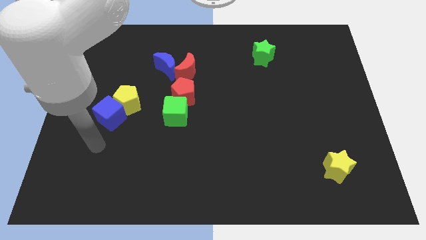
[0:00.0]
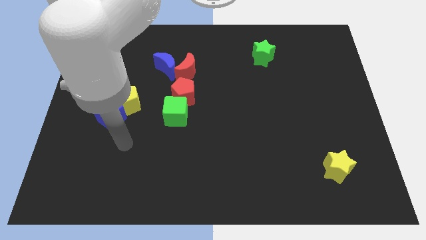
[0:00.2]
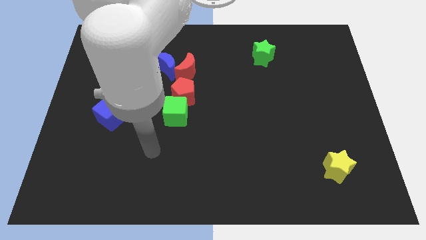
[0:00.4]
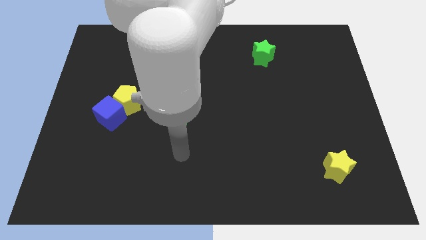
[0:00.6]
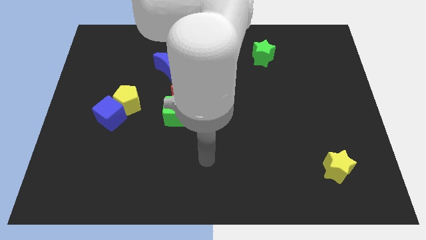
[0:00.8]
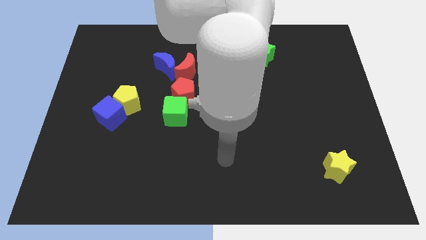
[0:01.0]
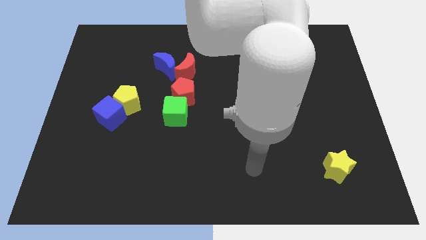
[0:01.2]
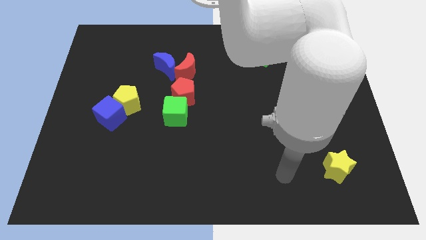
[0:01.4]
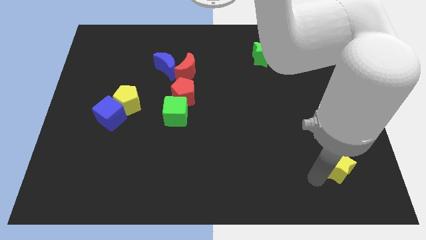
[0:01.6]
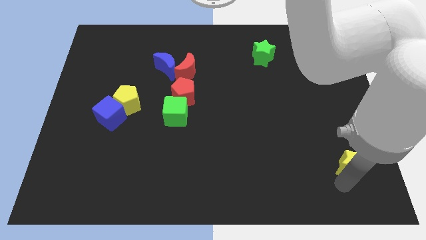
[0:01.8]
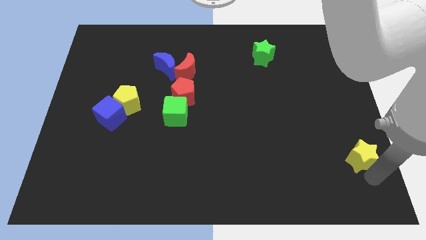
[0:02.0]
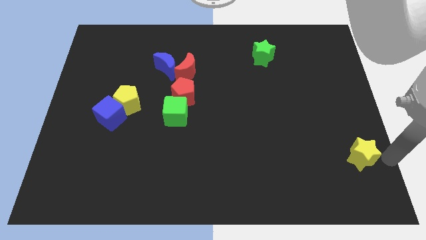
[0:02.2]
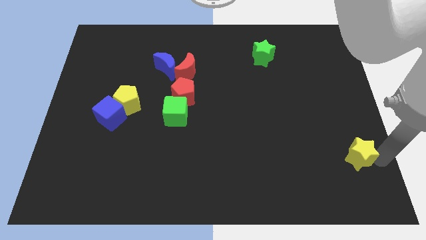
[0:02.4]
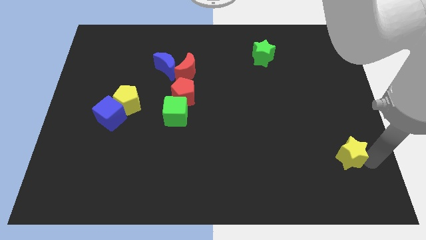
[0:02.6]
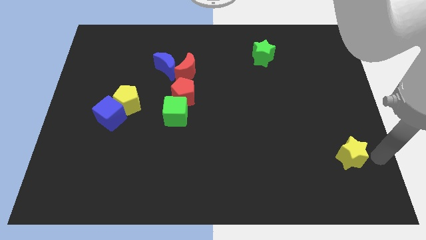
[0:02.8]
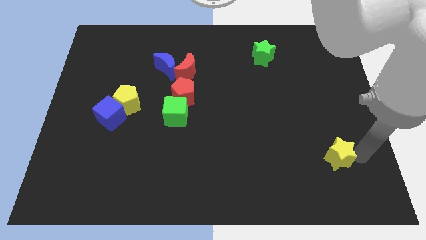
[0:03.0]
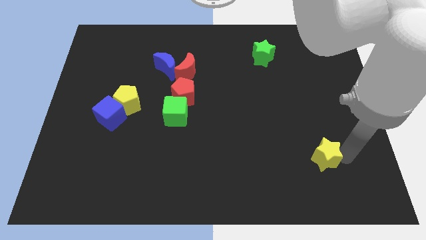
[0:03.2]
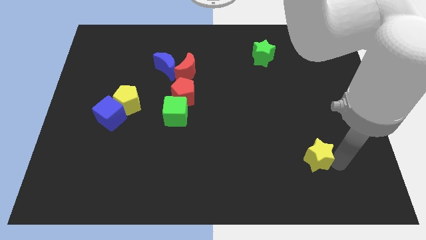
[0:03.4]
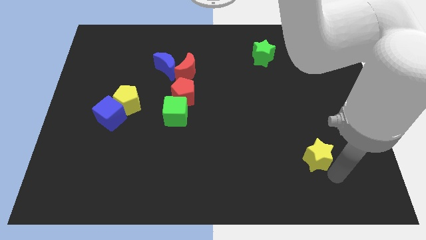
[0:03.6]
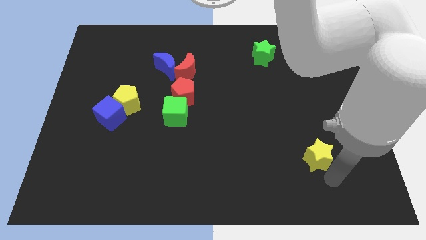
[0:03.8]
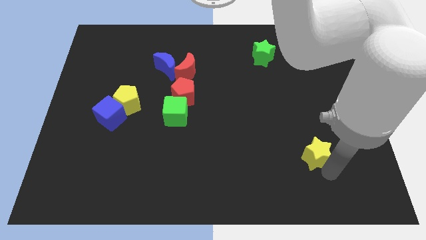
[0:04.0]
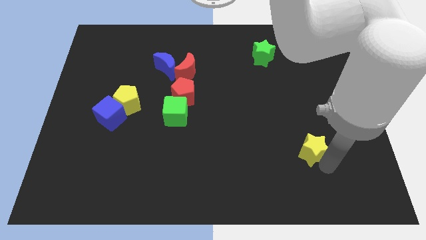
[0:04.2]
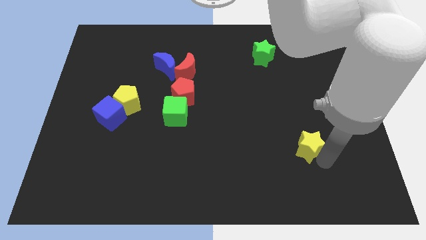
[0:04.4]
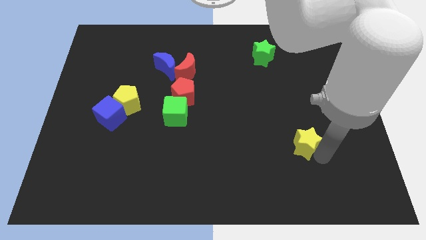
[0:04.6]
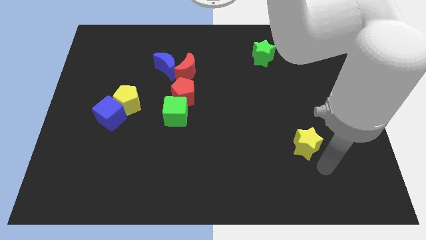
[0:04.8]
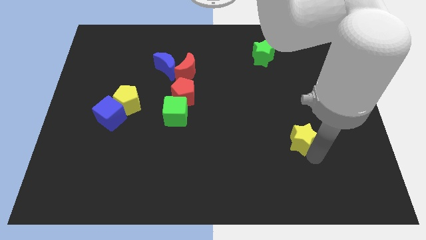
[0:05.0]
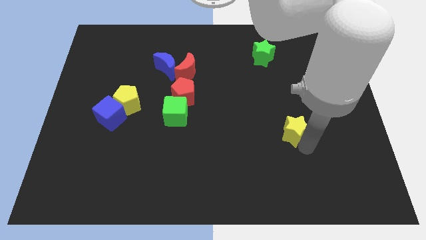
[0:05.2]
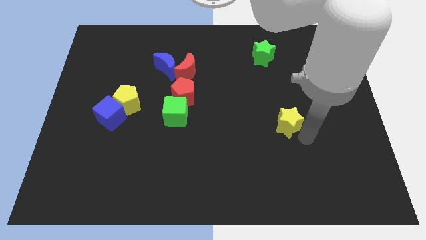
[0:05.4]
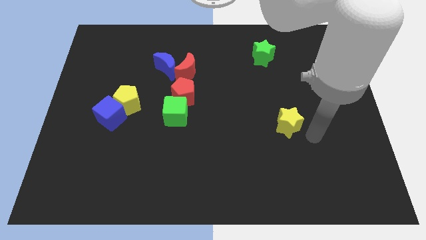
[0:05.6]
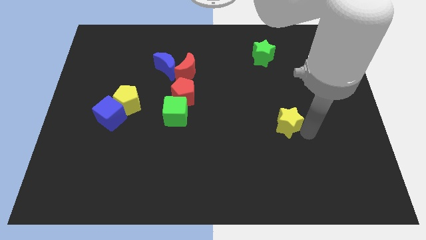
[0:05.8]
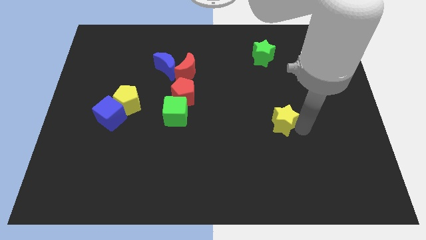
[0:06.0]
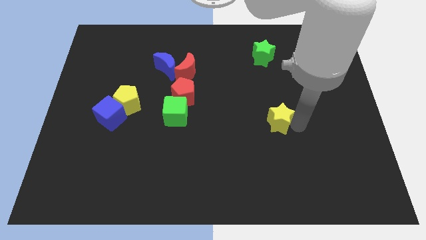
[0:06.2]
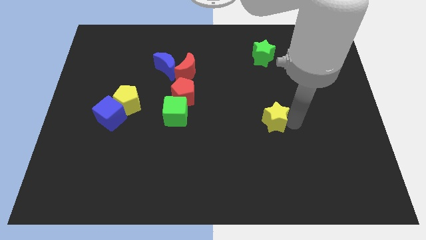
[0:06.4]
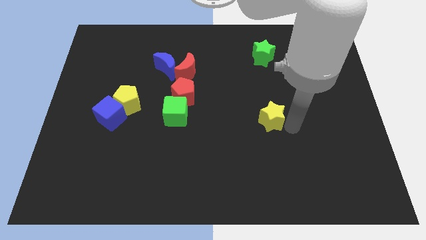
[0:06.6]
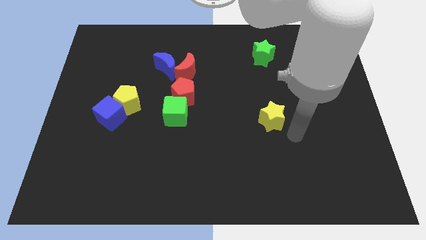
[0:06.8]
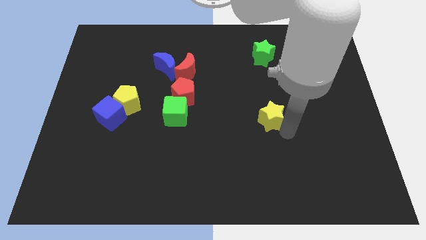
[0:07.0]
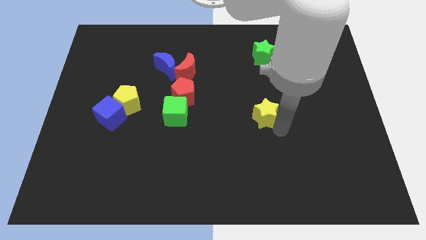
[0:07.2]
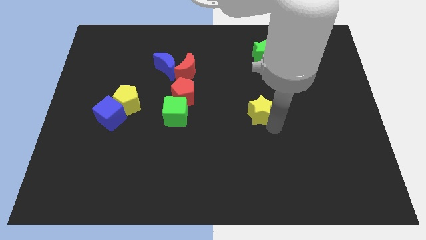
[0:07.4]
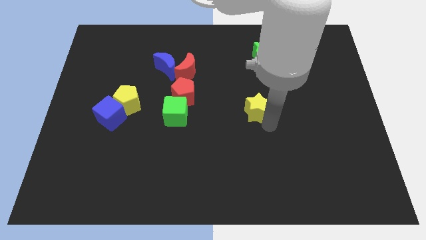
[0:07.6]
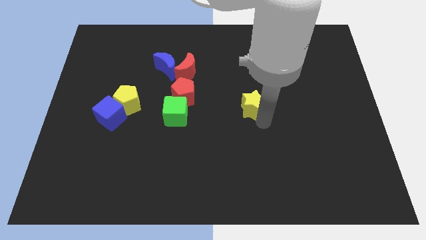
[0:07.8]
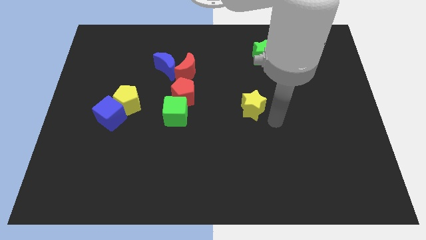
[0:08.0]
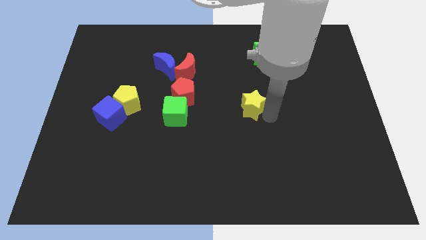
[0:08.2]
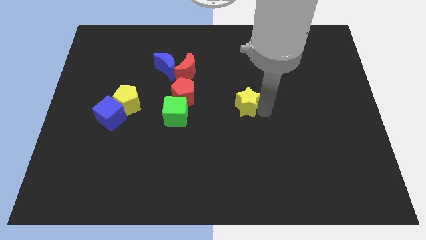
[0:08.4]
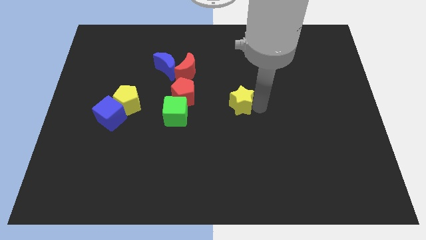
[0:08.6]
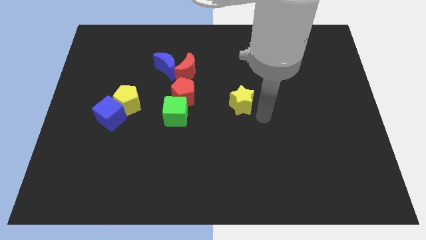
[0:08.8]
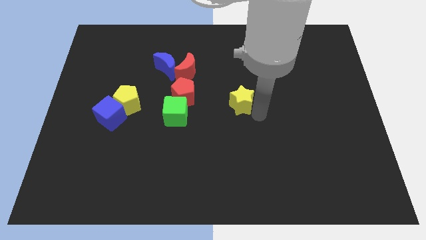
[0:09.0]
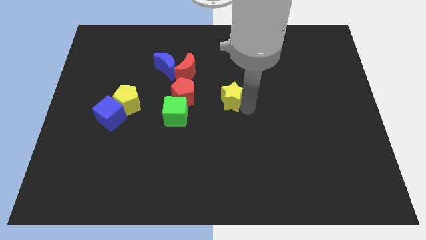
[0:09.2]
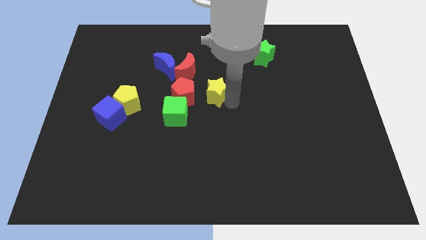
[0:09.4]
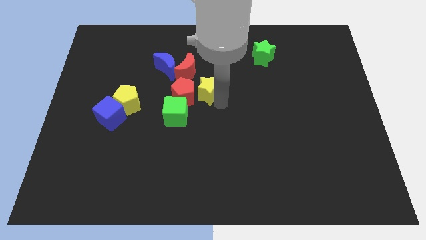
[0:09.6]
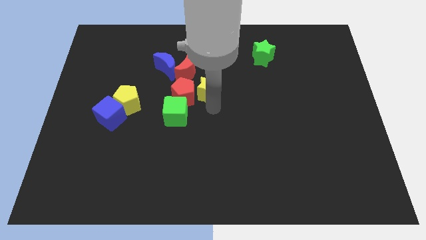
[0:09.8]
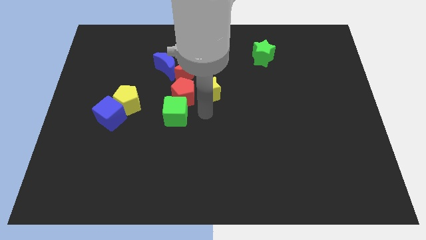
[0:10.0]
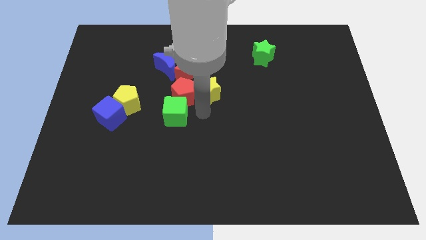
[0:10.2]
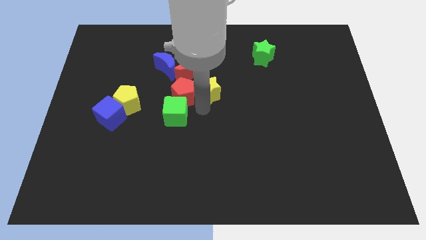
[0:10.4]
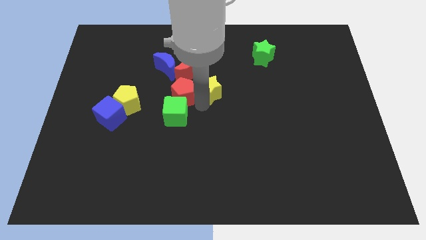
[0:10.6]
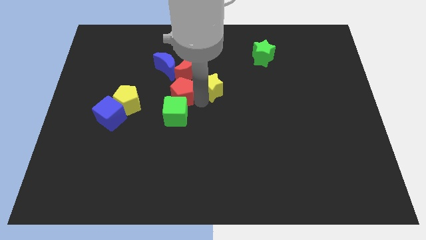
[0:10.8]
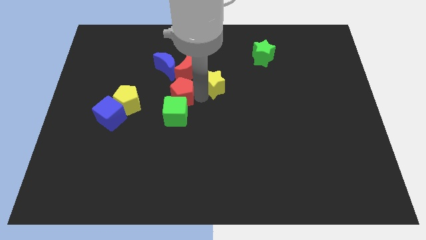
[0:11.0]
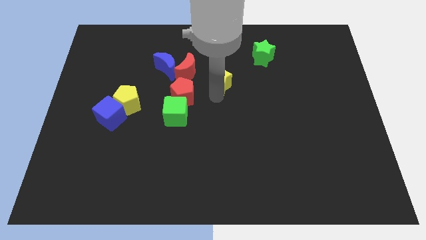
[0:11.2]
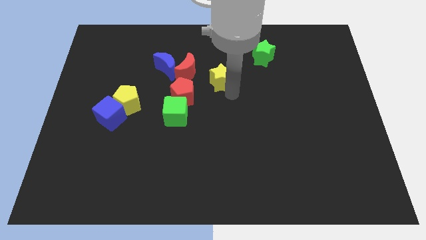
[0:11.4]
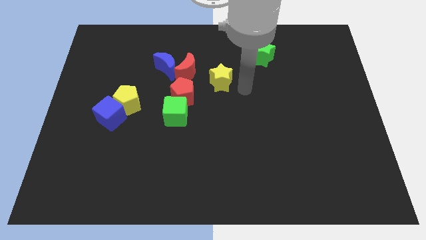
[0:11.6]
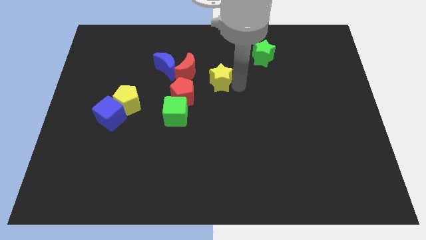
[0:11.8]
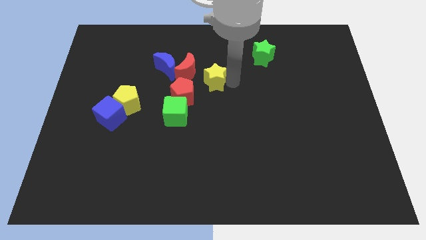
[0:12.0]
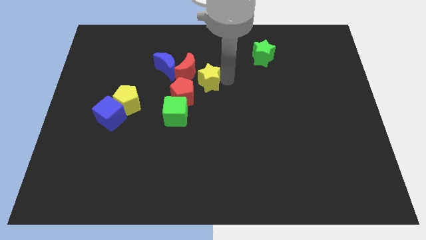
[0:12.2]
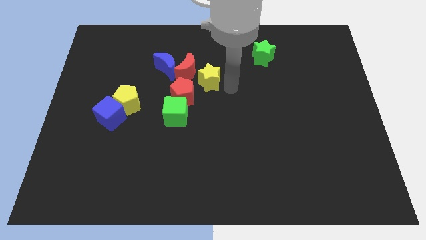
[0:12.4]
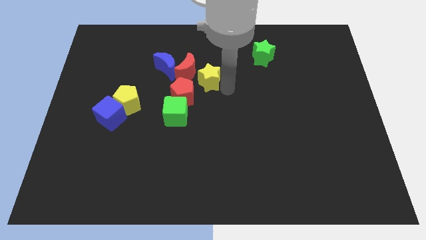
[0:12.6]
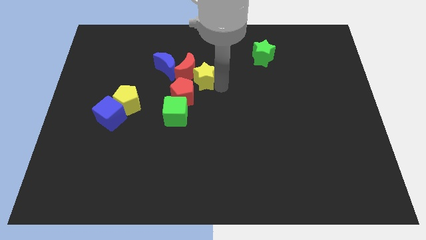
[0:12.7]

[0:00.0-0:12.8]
move the yellow star towards the red moon

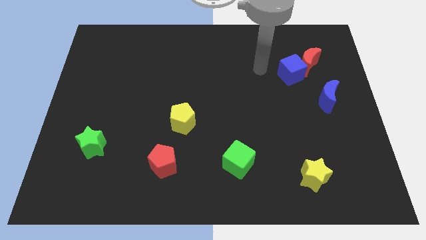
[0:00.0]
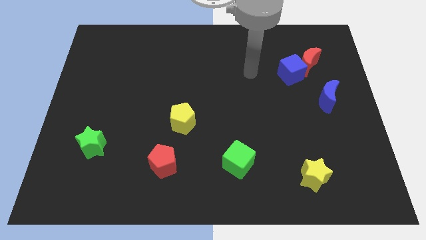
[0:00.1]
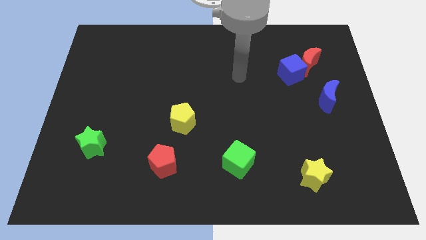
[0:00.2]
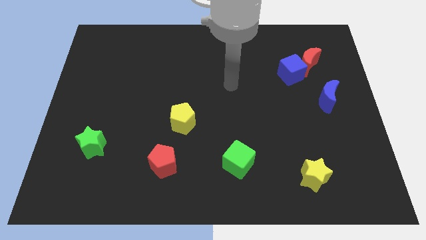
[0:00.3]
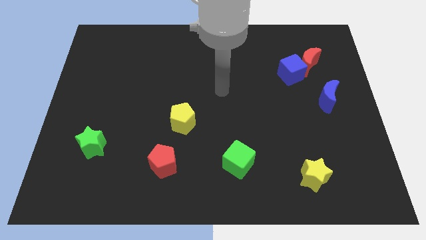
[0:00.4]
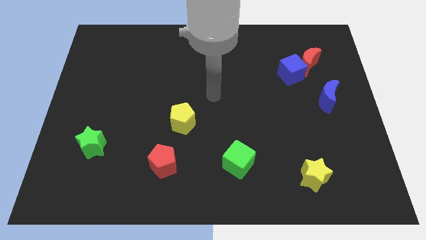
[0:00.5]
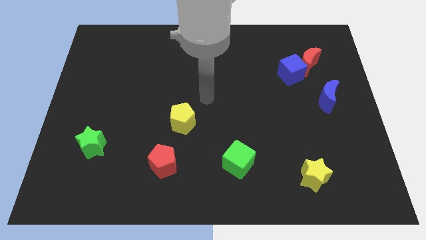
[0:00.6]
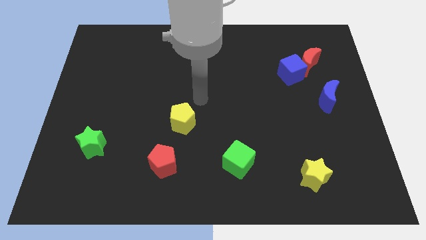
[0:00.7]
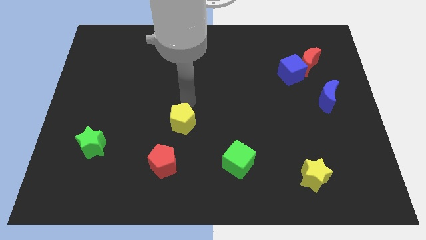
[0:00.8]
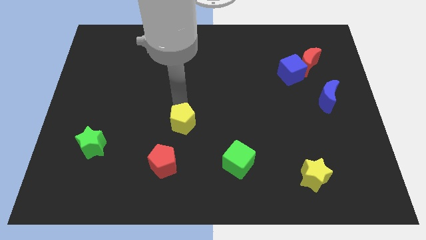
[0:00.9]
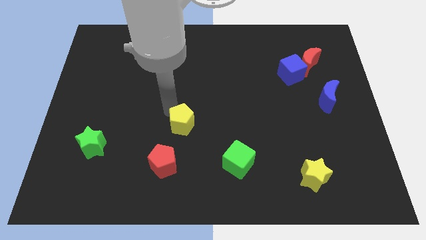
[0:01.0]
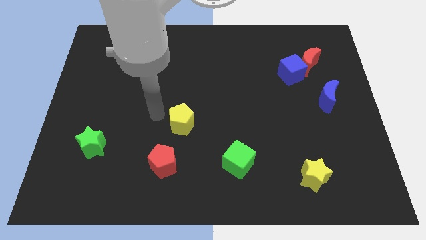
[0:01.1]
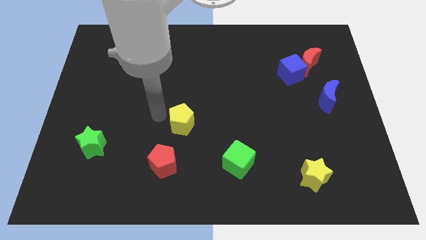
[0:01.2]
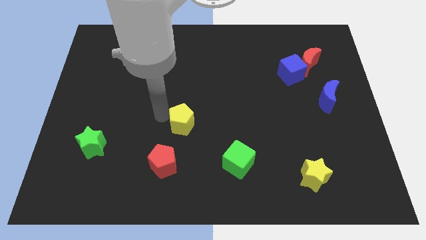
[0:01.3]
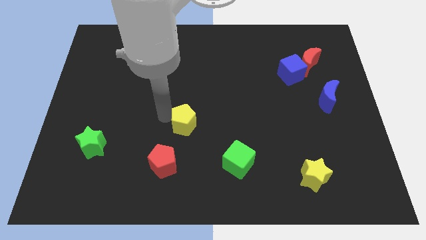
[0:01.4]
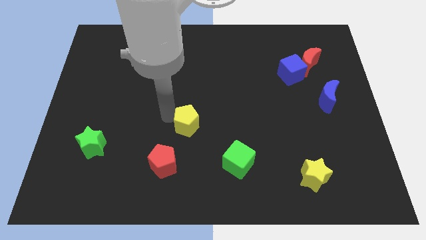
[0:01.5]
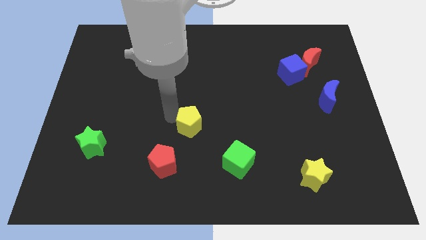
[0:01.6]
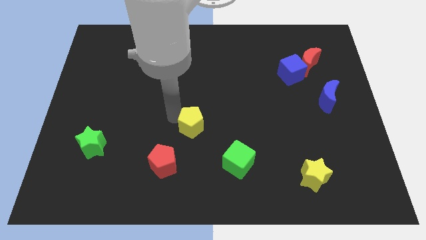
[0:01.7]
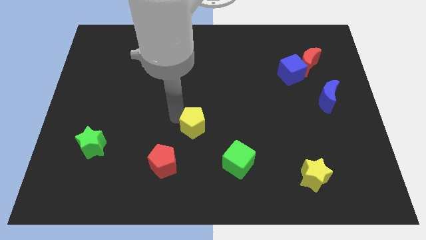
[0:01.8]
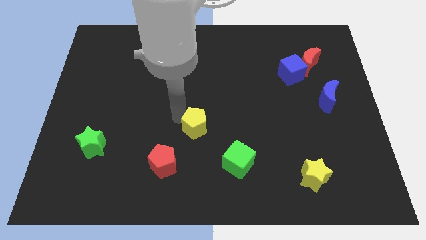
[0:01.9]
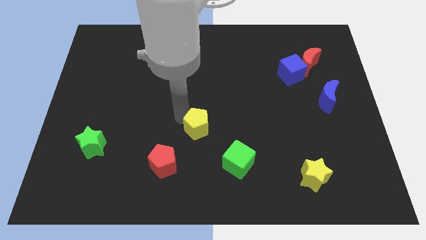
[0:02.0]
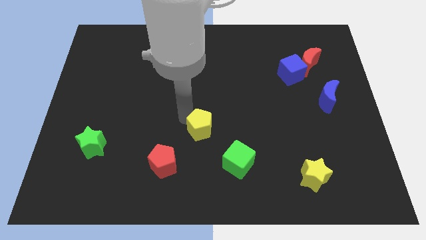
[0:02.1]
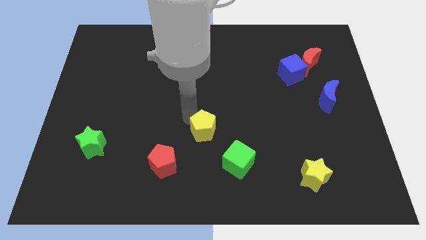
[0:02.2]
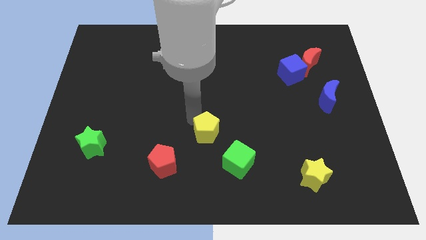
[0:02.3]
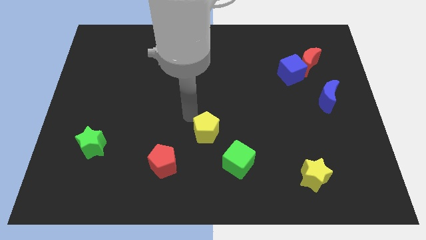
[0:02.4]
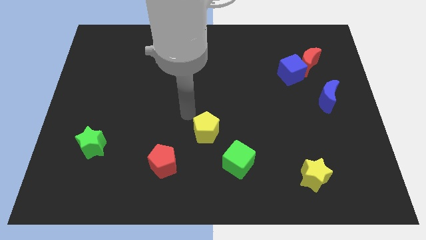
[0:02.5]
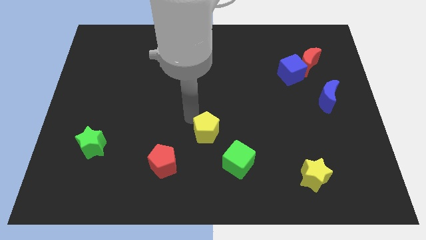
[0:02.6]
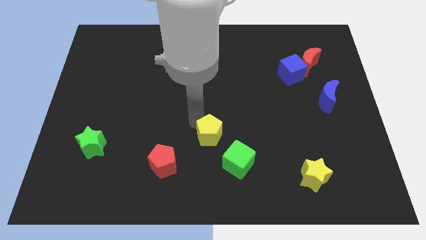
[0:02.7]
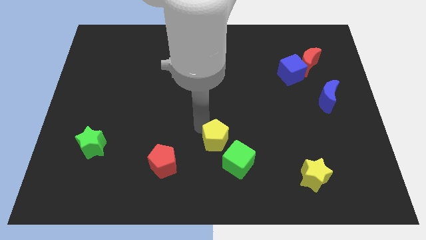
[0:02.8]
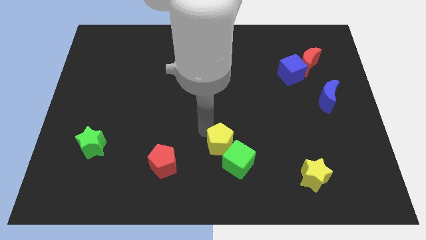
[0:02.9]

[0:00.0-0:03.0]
put the yellow pentagon towards the green cube
